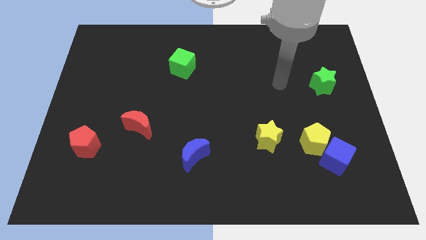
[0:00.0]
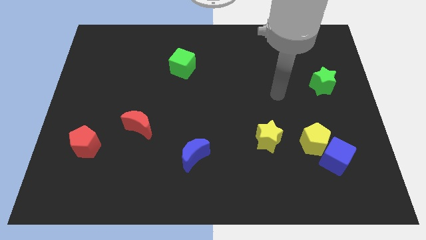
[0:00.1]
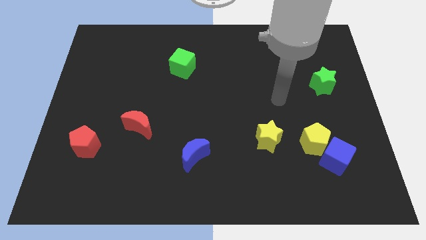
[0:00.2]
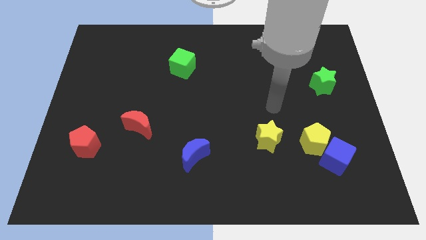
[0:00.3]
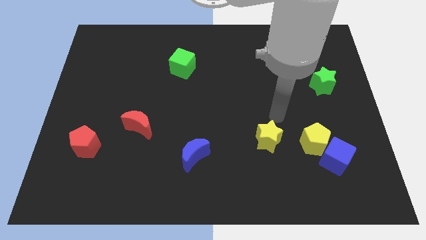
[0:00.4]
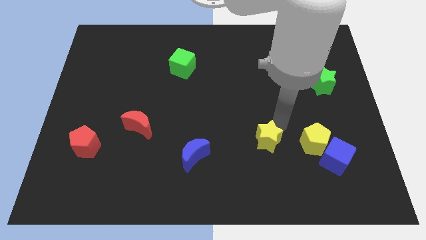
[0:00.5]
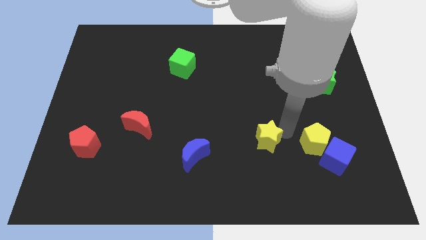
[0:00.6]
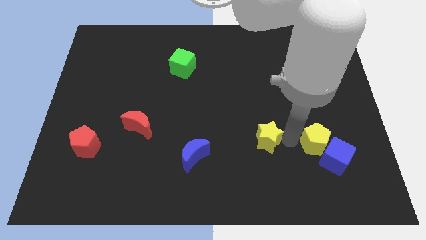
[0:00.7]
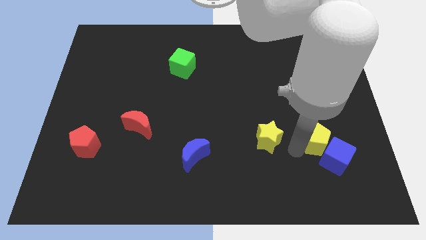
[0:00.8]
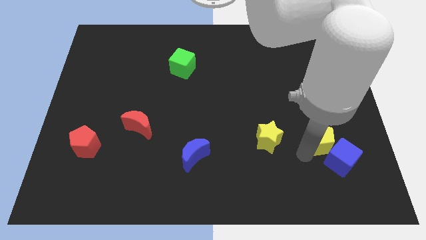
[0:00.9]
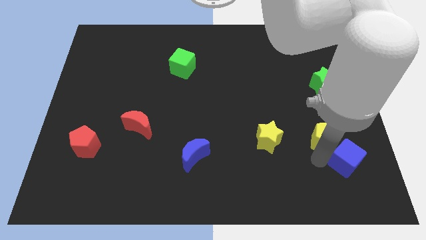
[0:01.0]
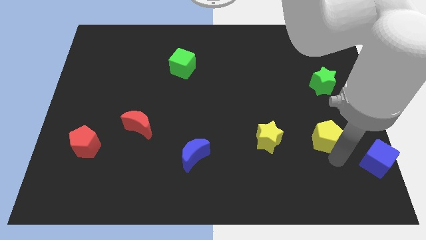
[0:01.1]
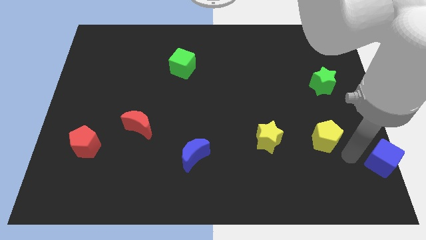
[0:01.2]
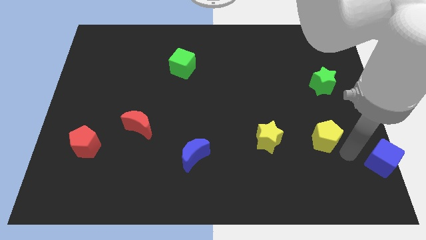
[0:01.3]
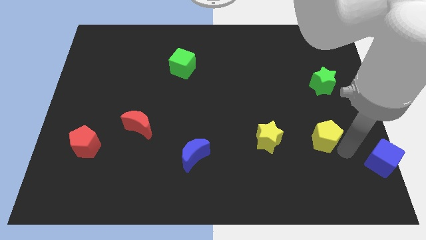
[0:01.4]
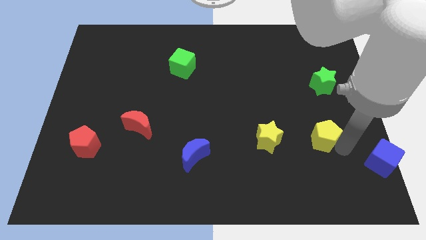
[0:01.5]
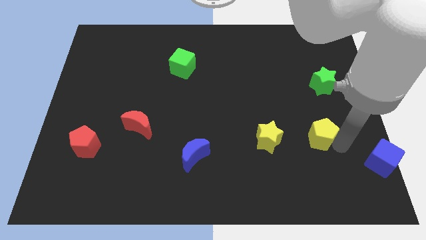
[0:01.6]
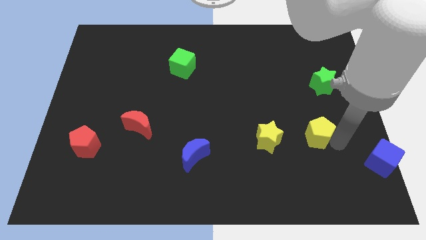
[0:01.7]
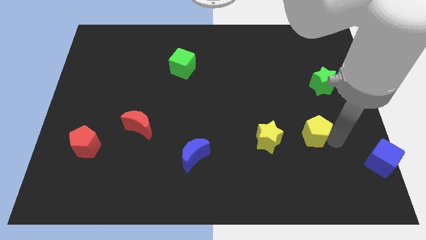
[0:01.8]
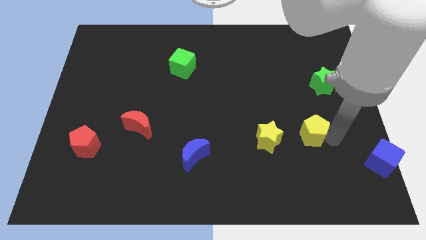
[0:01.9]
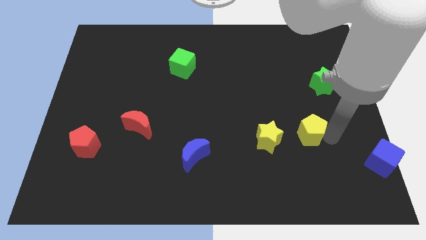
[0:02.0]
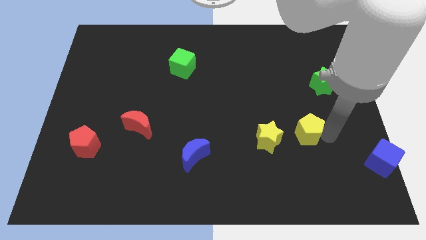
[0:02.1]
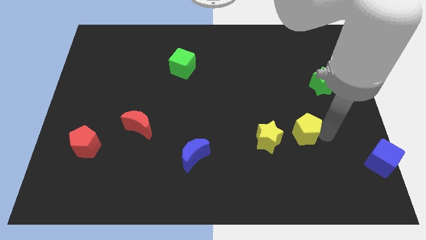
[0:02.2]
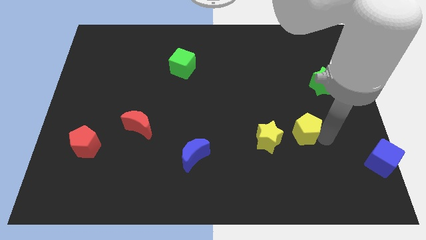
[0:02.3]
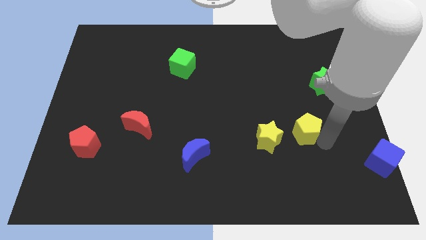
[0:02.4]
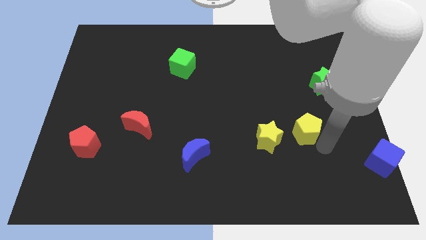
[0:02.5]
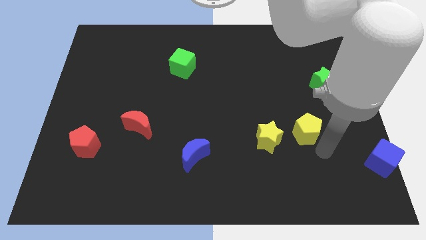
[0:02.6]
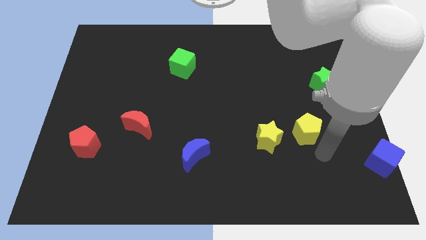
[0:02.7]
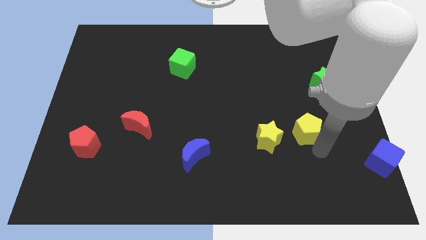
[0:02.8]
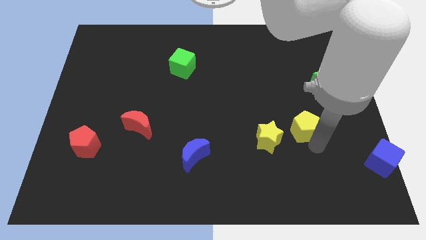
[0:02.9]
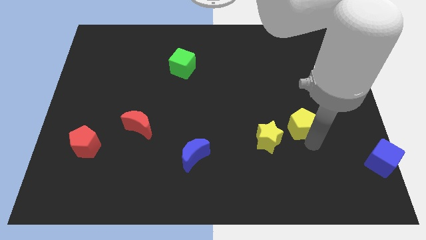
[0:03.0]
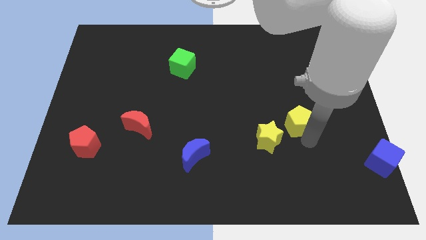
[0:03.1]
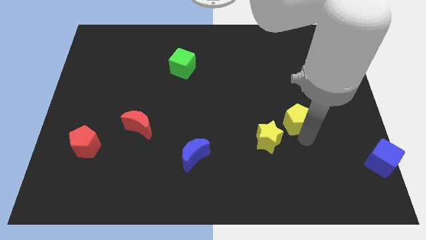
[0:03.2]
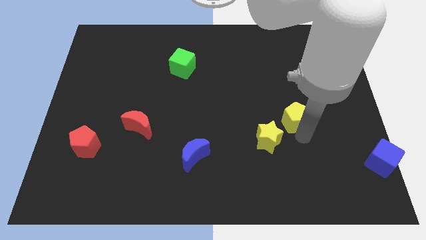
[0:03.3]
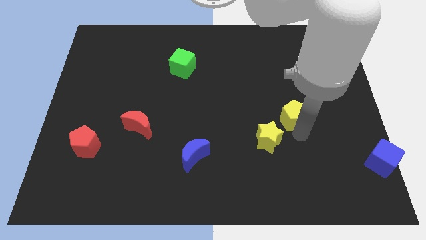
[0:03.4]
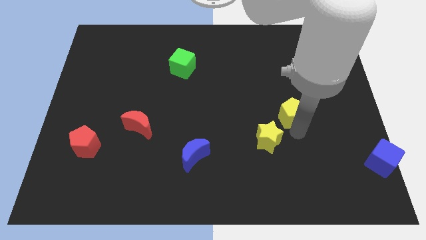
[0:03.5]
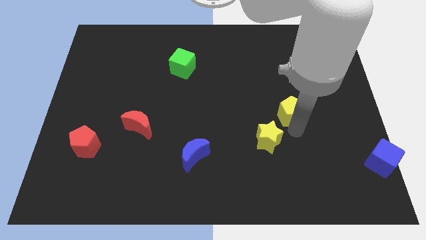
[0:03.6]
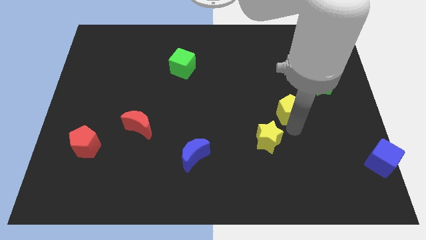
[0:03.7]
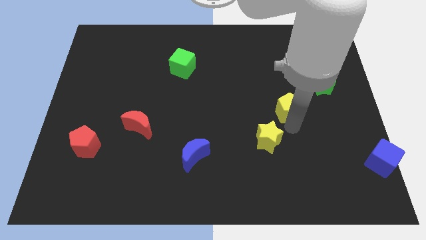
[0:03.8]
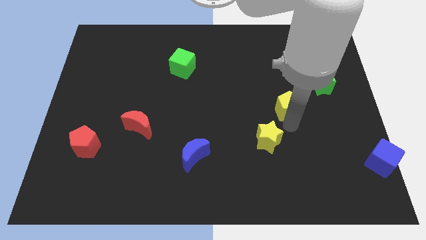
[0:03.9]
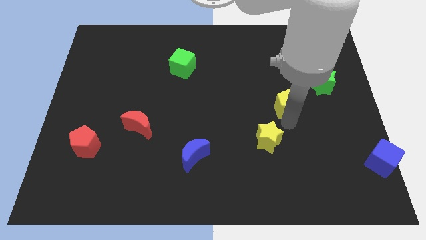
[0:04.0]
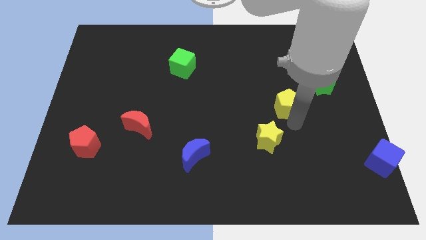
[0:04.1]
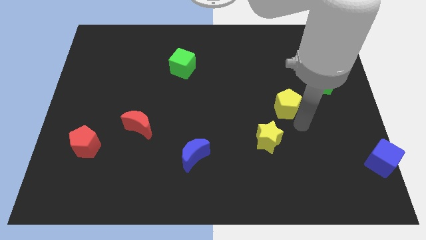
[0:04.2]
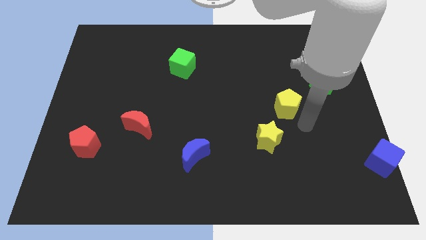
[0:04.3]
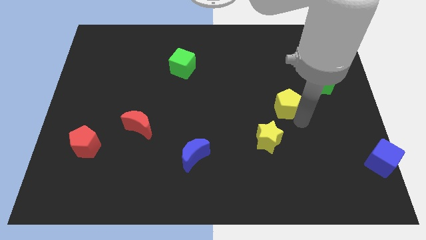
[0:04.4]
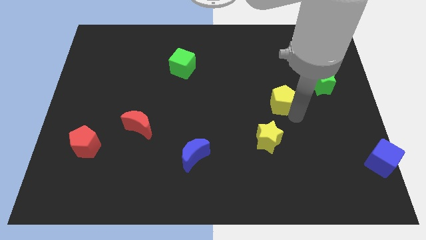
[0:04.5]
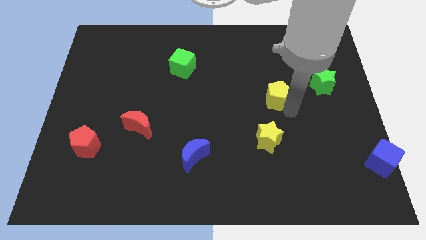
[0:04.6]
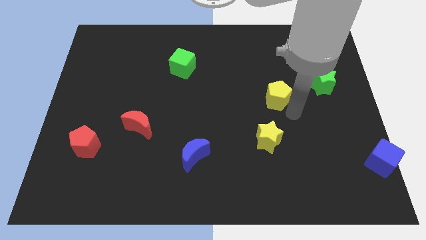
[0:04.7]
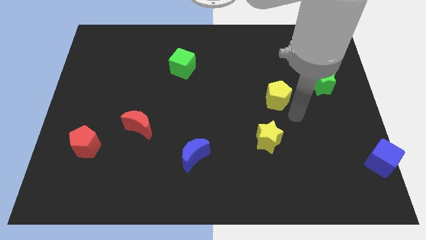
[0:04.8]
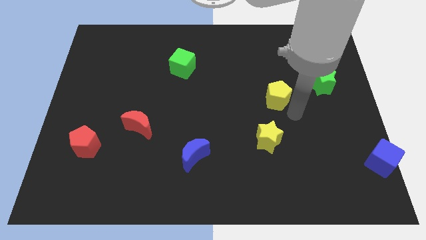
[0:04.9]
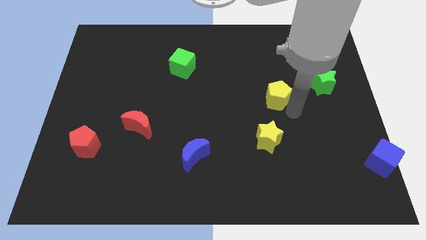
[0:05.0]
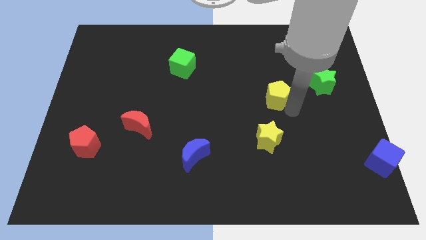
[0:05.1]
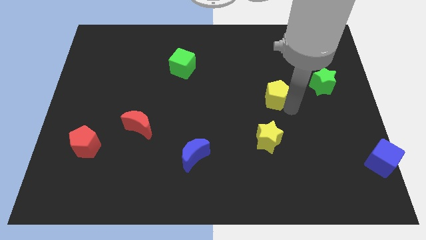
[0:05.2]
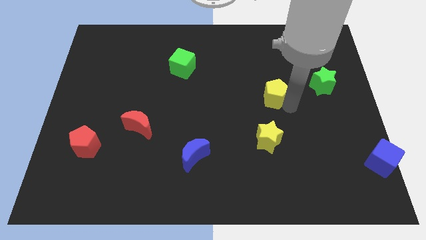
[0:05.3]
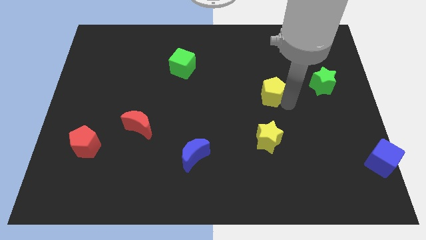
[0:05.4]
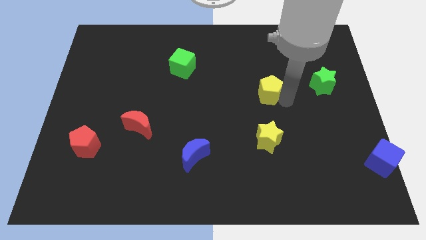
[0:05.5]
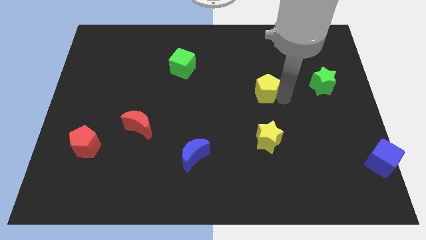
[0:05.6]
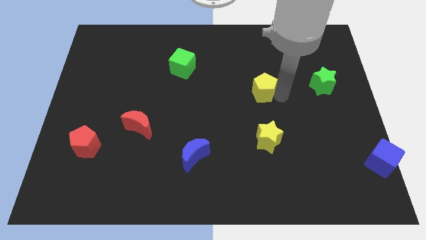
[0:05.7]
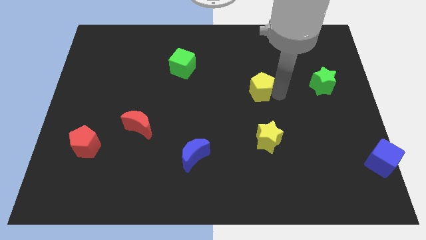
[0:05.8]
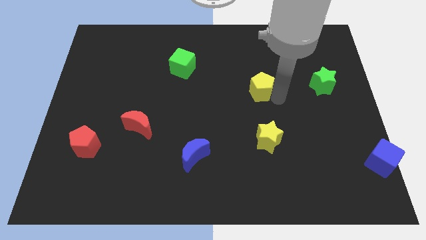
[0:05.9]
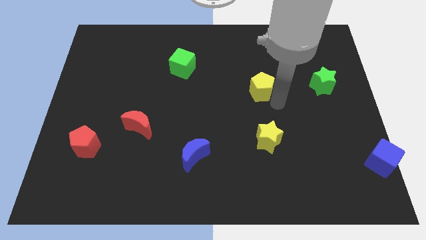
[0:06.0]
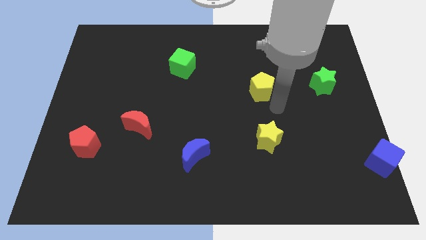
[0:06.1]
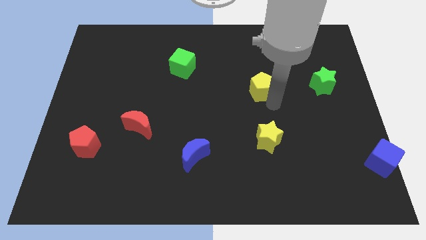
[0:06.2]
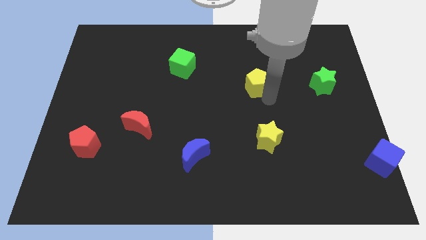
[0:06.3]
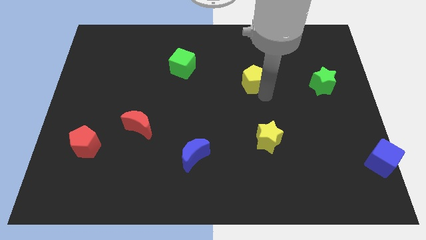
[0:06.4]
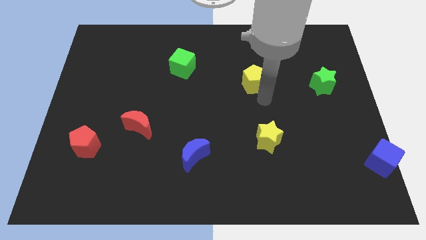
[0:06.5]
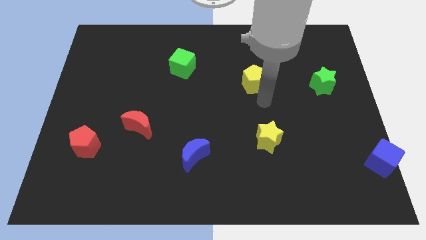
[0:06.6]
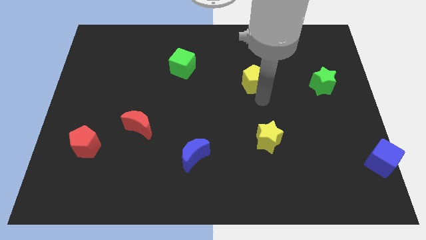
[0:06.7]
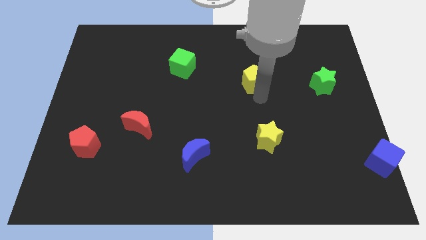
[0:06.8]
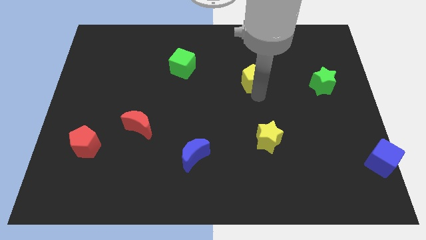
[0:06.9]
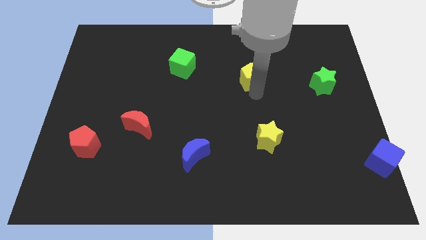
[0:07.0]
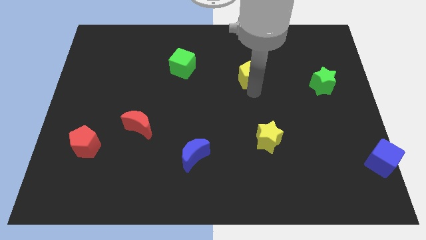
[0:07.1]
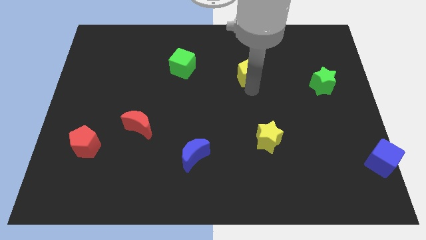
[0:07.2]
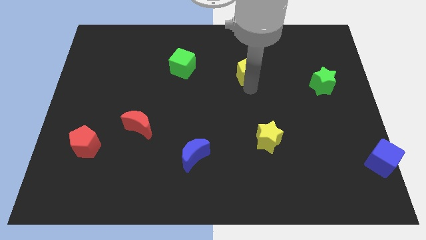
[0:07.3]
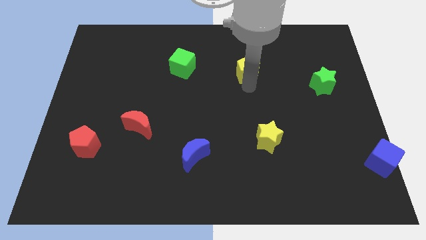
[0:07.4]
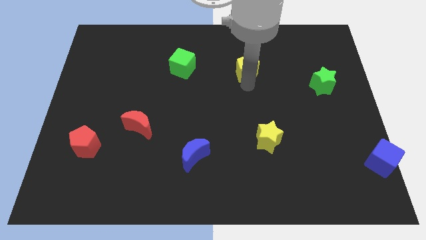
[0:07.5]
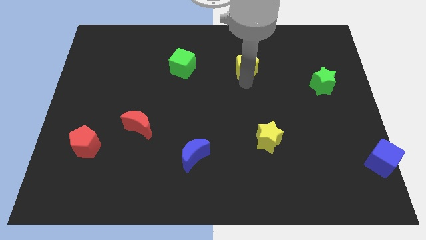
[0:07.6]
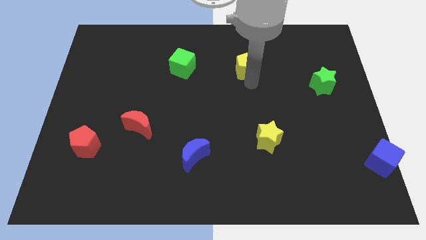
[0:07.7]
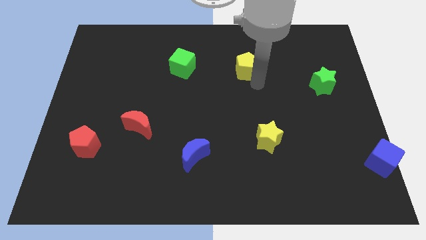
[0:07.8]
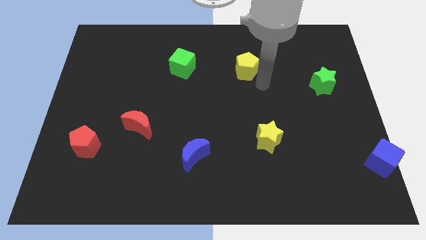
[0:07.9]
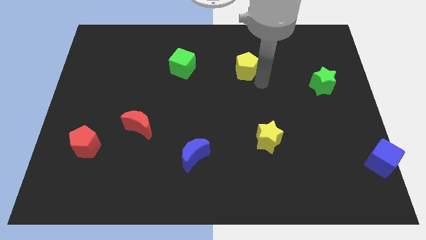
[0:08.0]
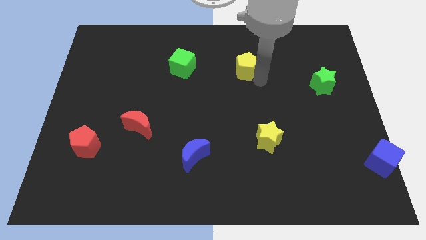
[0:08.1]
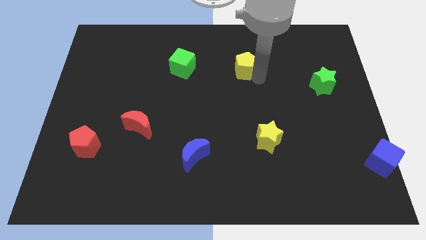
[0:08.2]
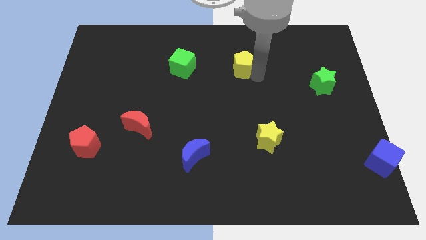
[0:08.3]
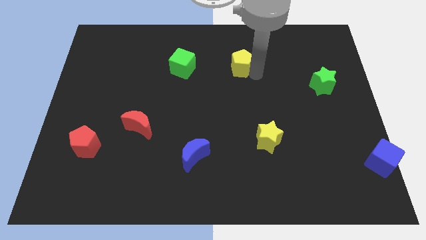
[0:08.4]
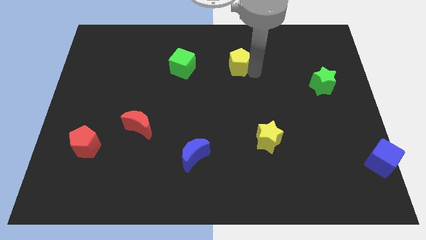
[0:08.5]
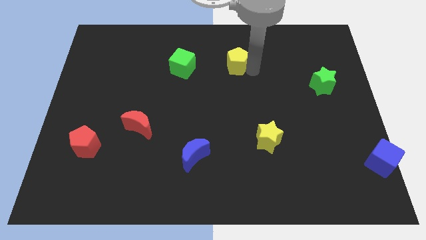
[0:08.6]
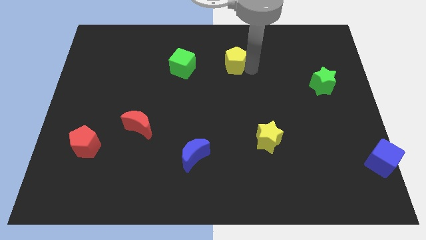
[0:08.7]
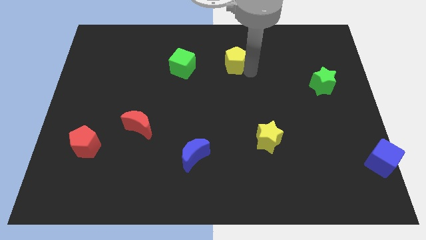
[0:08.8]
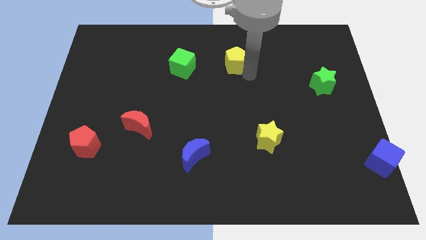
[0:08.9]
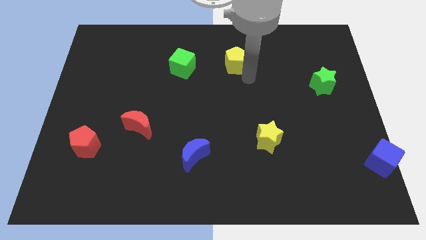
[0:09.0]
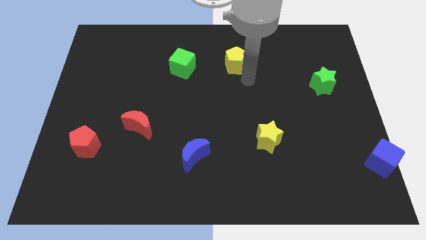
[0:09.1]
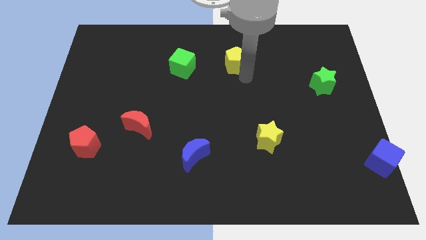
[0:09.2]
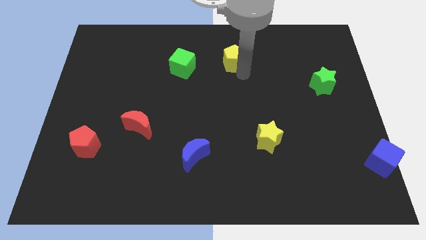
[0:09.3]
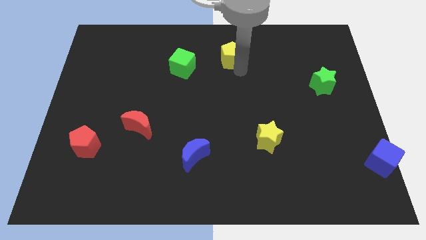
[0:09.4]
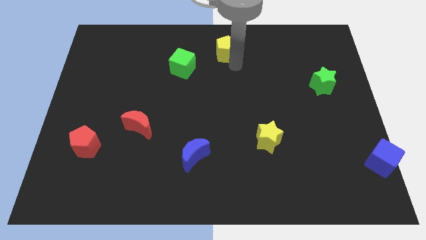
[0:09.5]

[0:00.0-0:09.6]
slide the yellow pentagon to the top side
